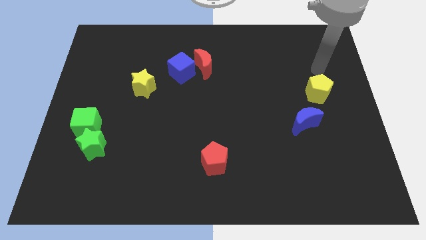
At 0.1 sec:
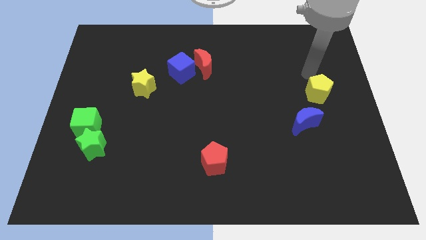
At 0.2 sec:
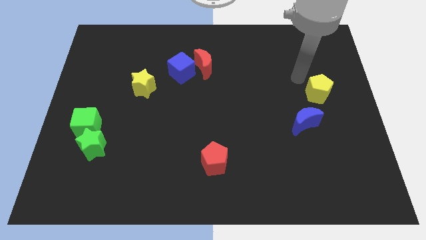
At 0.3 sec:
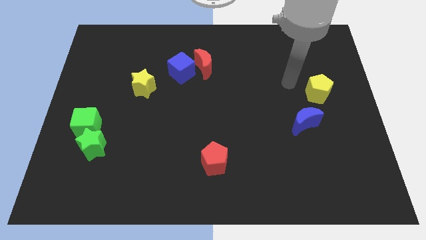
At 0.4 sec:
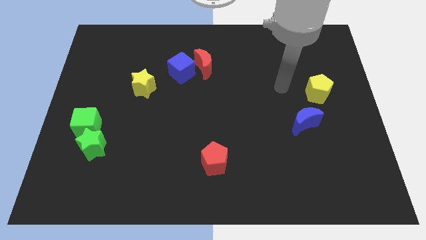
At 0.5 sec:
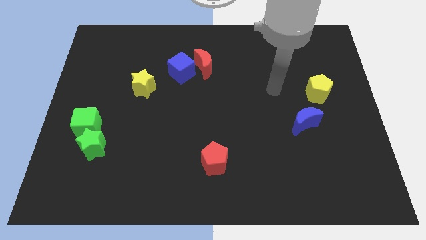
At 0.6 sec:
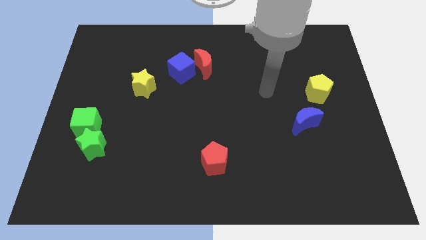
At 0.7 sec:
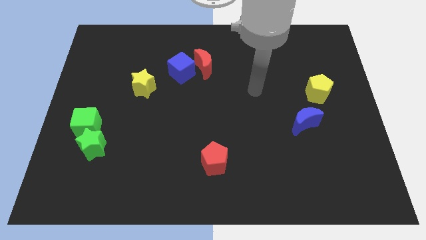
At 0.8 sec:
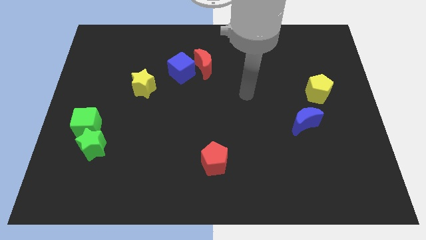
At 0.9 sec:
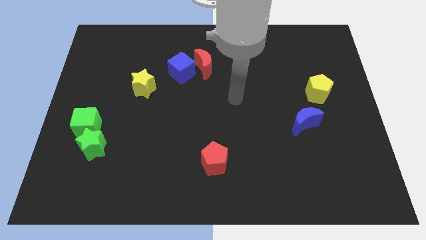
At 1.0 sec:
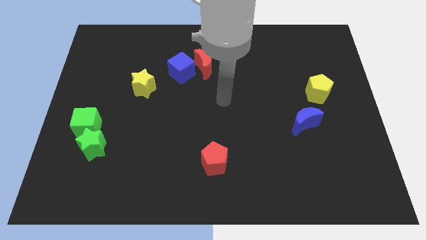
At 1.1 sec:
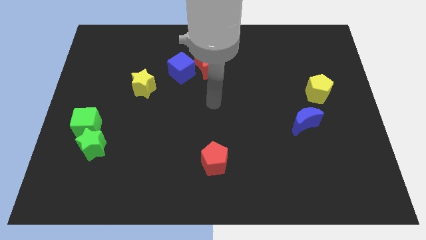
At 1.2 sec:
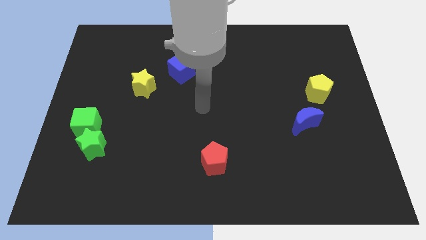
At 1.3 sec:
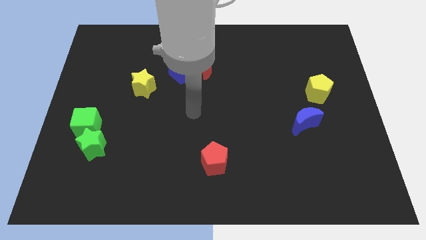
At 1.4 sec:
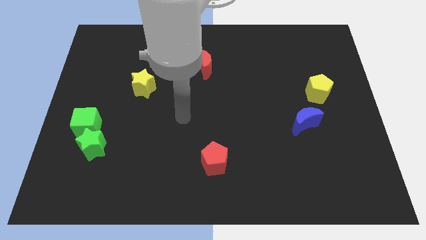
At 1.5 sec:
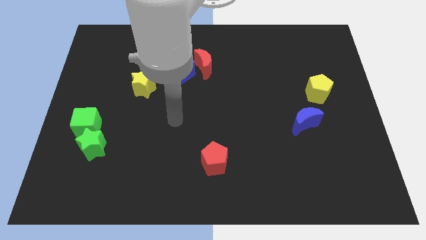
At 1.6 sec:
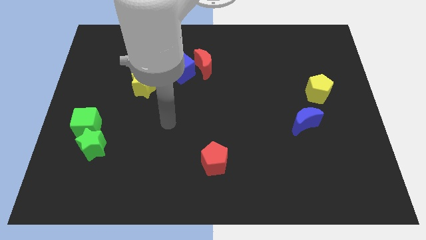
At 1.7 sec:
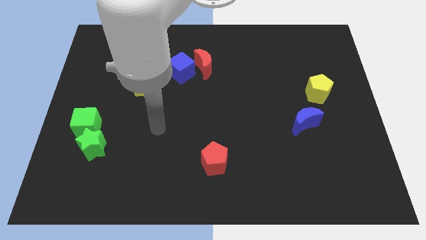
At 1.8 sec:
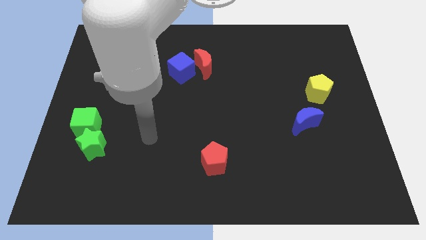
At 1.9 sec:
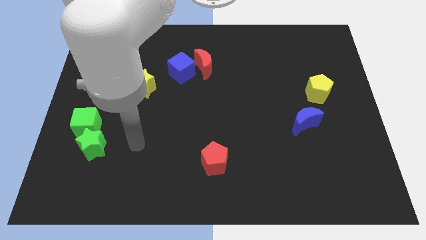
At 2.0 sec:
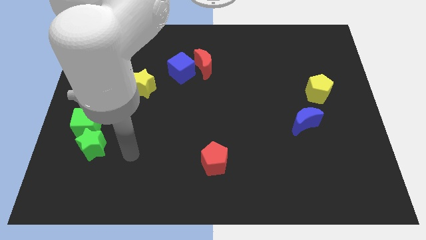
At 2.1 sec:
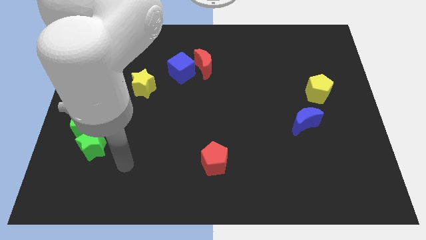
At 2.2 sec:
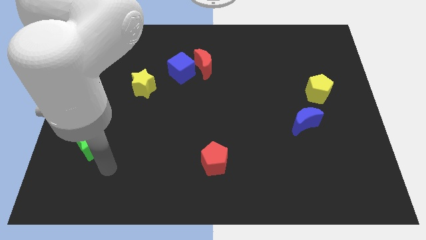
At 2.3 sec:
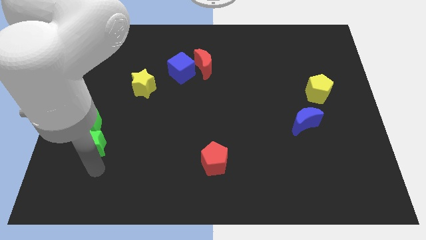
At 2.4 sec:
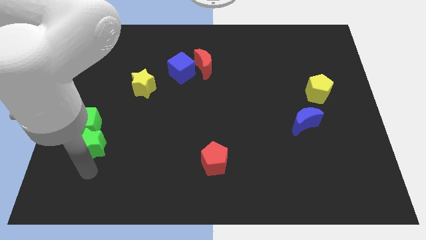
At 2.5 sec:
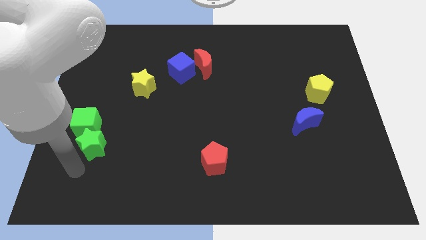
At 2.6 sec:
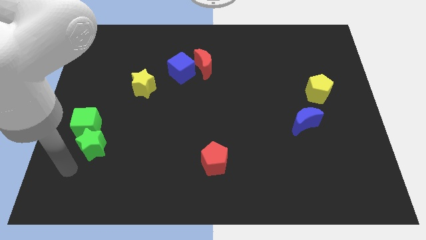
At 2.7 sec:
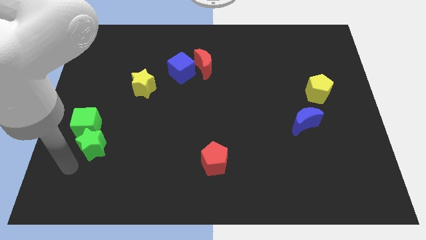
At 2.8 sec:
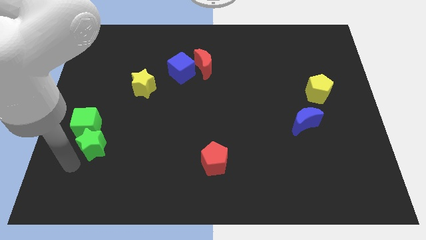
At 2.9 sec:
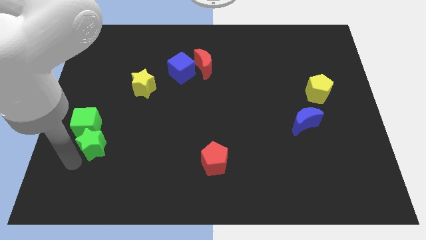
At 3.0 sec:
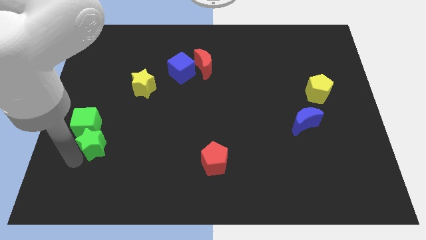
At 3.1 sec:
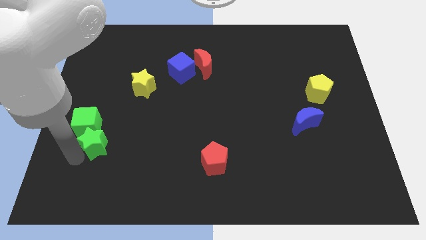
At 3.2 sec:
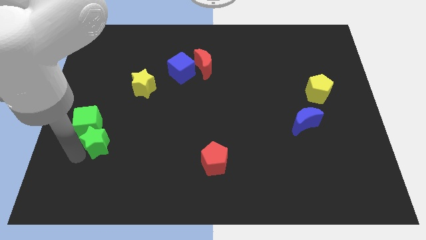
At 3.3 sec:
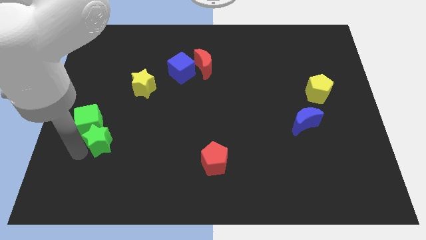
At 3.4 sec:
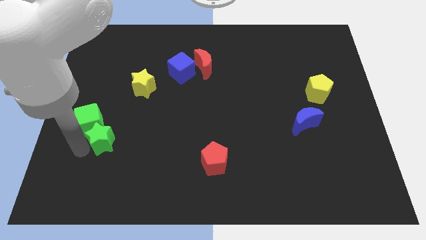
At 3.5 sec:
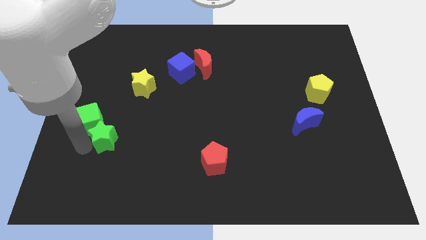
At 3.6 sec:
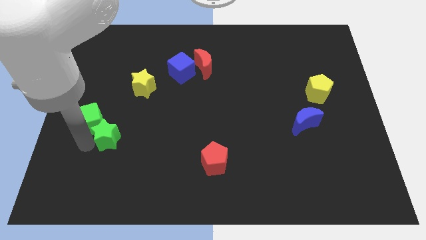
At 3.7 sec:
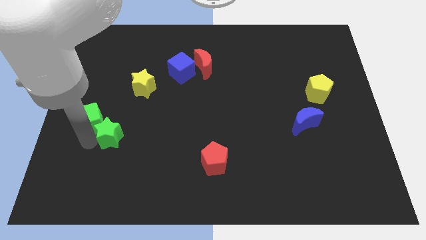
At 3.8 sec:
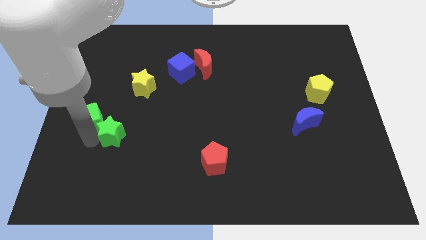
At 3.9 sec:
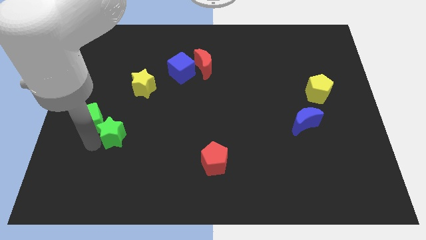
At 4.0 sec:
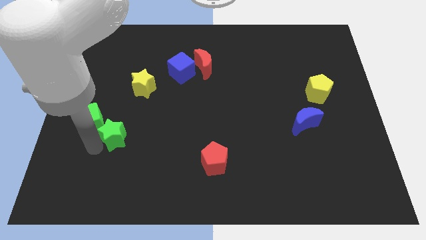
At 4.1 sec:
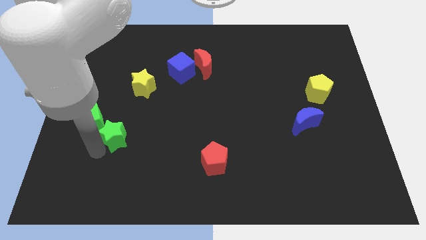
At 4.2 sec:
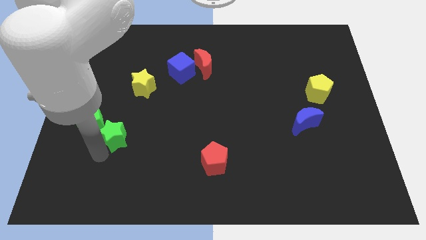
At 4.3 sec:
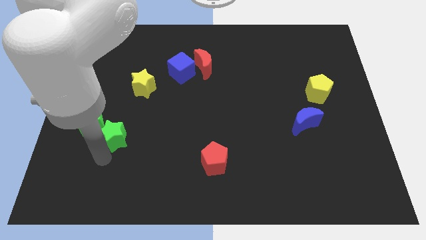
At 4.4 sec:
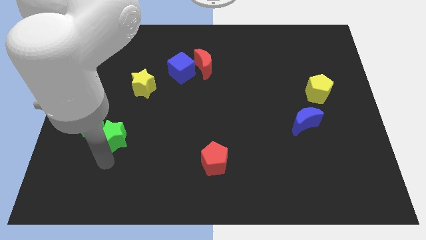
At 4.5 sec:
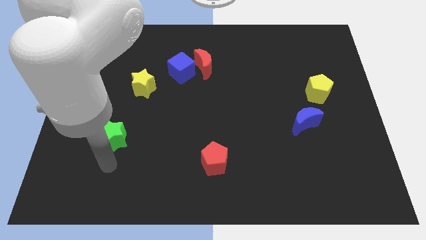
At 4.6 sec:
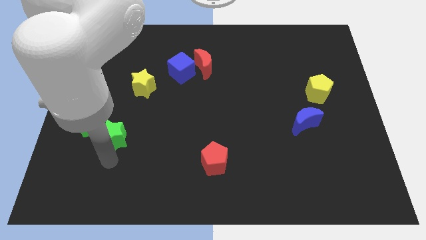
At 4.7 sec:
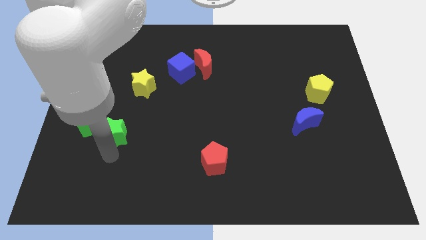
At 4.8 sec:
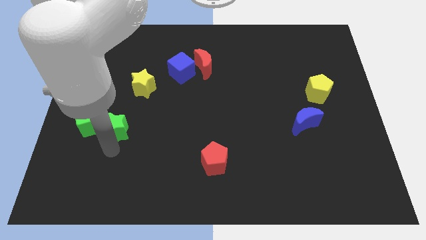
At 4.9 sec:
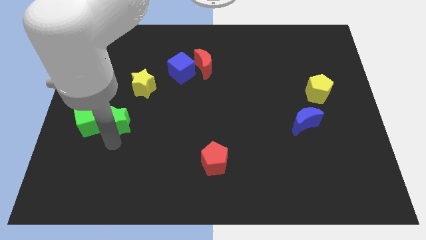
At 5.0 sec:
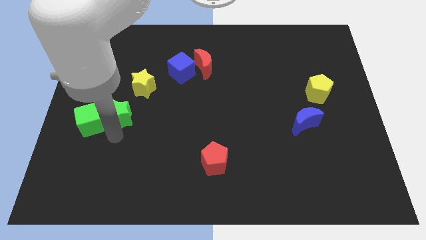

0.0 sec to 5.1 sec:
move the green star diagonally down and to the left of the yellow star

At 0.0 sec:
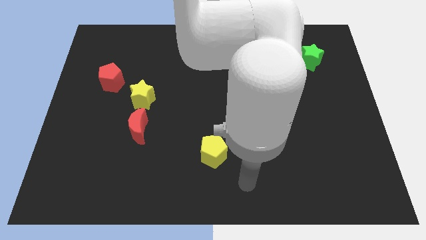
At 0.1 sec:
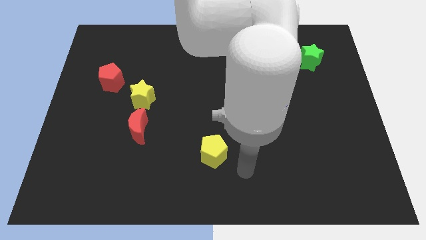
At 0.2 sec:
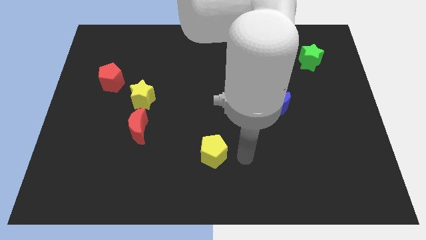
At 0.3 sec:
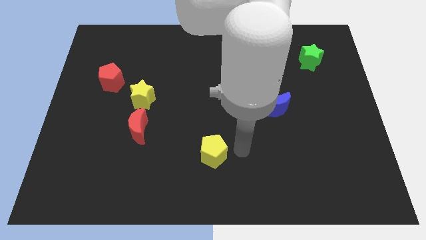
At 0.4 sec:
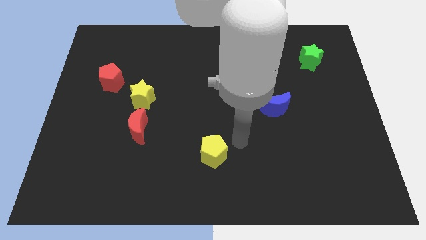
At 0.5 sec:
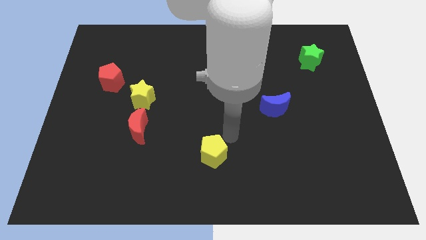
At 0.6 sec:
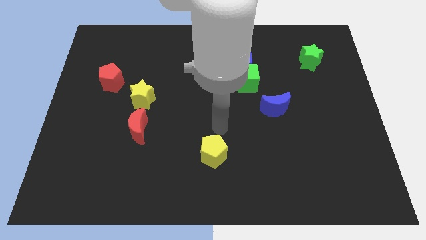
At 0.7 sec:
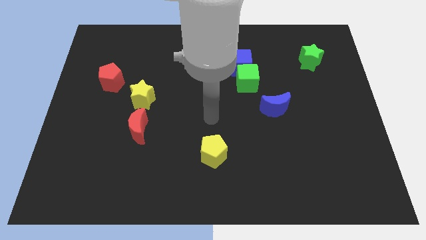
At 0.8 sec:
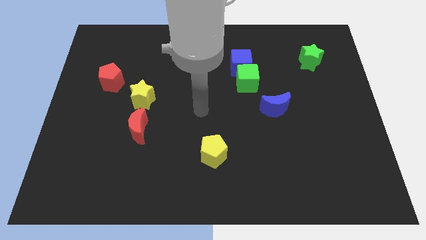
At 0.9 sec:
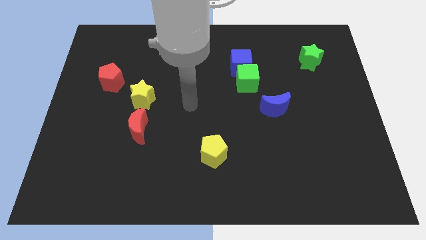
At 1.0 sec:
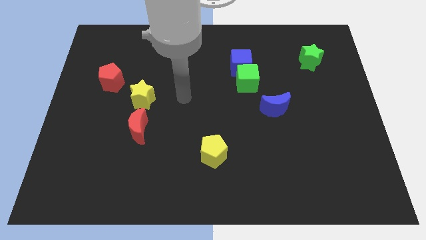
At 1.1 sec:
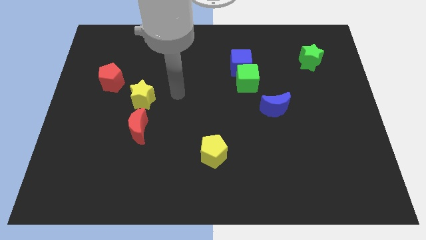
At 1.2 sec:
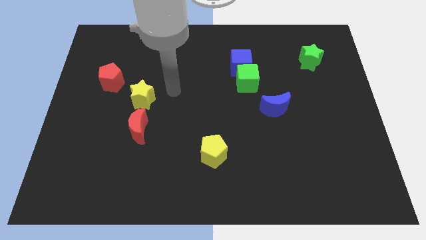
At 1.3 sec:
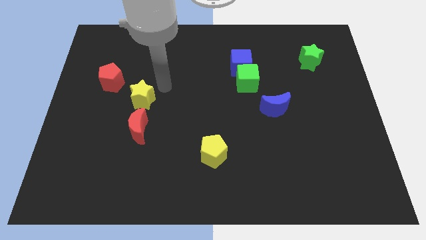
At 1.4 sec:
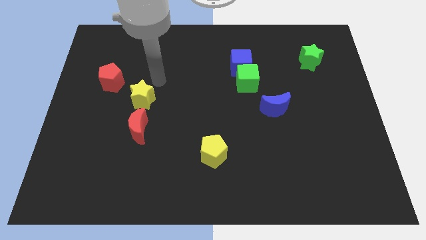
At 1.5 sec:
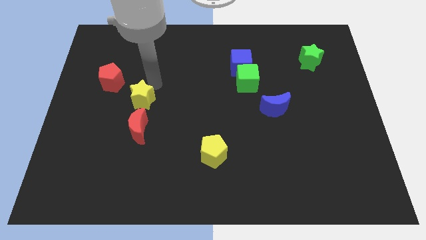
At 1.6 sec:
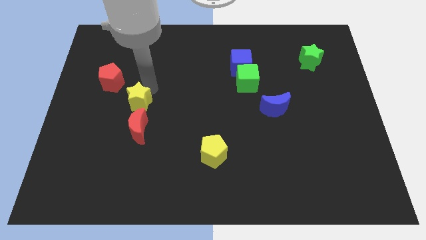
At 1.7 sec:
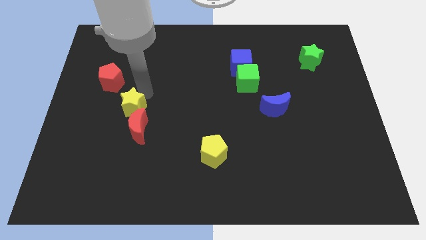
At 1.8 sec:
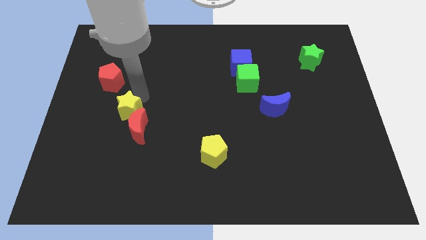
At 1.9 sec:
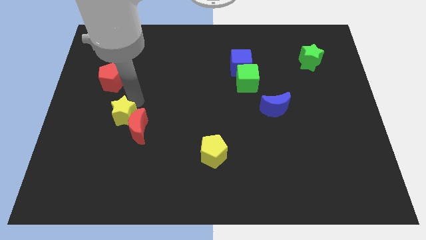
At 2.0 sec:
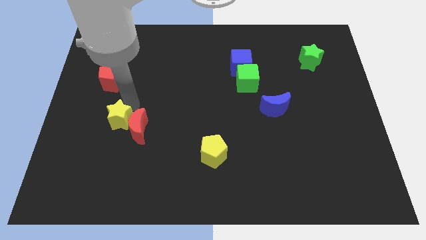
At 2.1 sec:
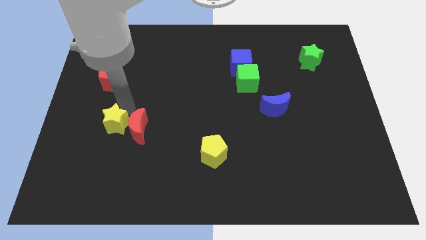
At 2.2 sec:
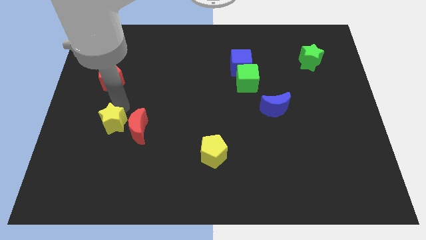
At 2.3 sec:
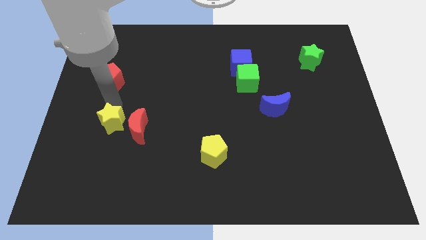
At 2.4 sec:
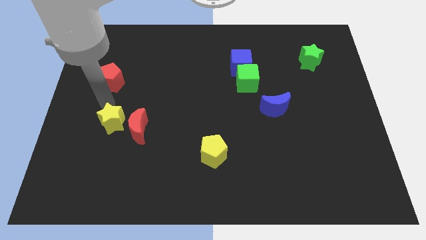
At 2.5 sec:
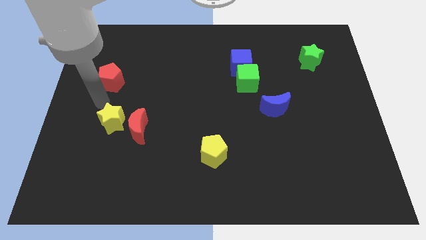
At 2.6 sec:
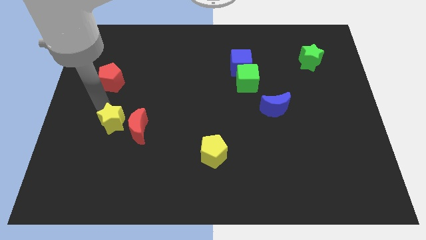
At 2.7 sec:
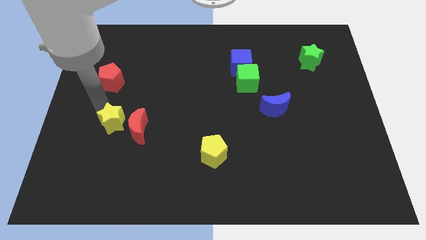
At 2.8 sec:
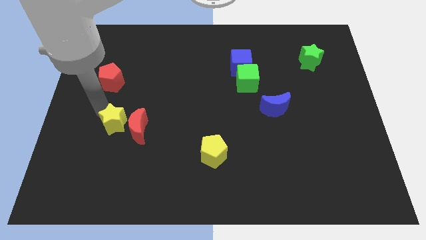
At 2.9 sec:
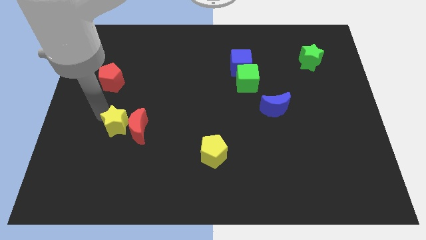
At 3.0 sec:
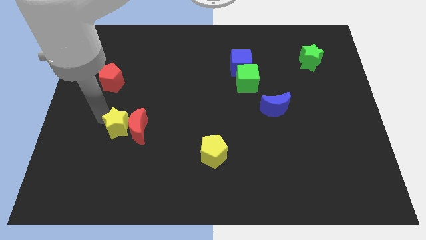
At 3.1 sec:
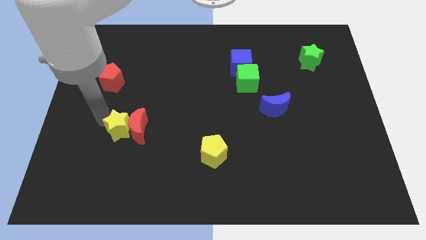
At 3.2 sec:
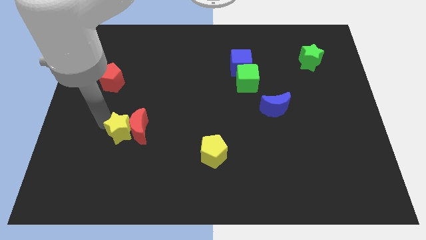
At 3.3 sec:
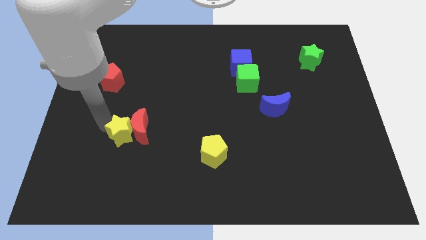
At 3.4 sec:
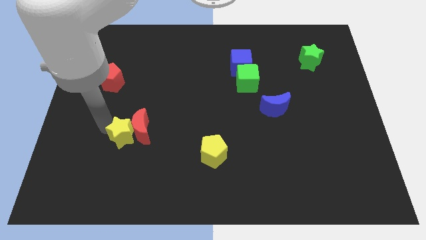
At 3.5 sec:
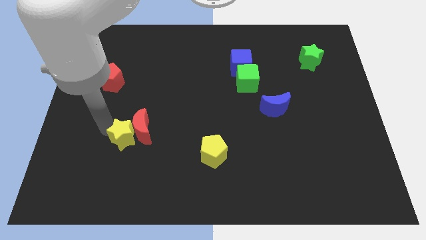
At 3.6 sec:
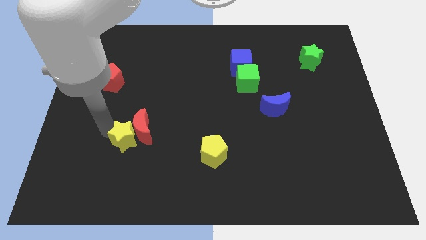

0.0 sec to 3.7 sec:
slide the yellow star below the red moon
